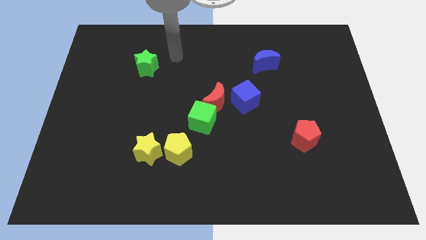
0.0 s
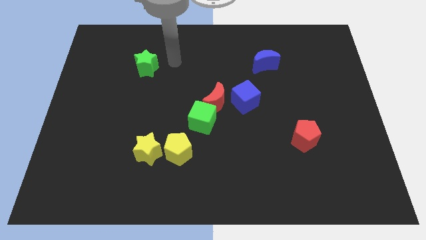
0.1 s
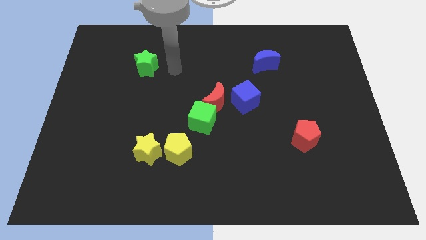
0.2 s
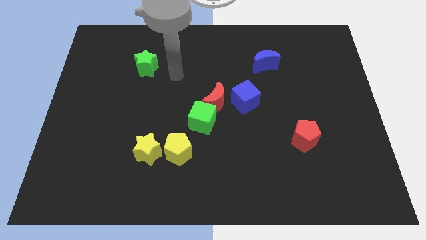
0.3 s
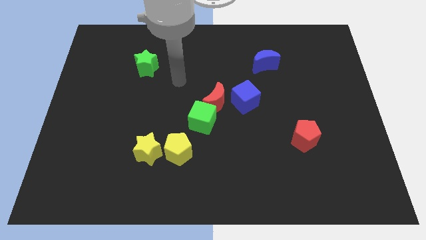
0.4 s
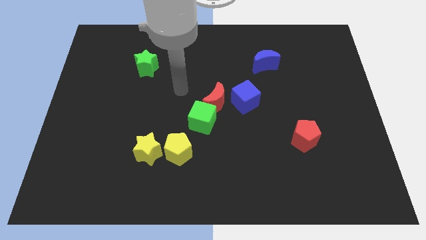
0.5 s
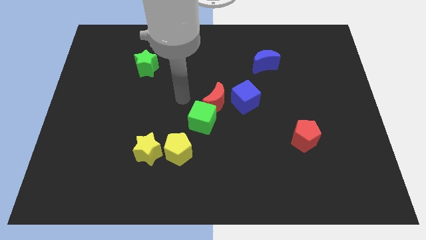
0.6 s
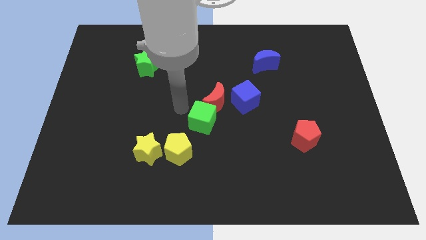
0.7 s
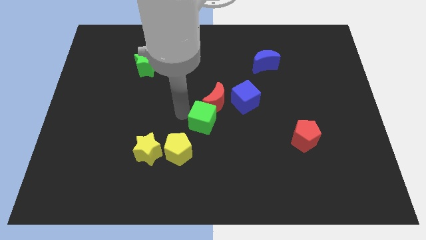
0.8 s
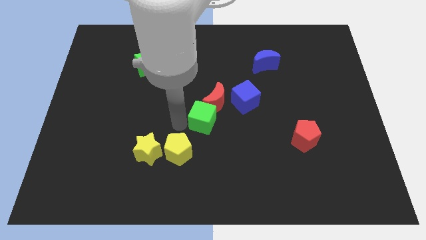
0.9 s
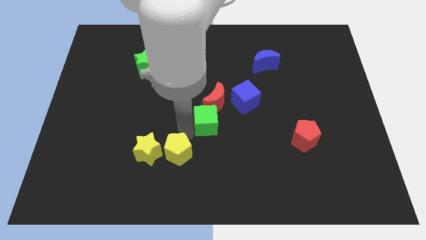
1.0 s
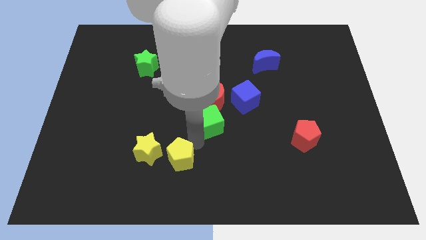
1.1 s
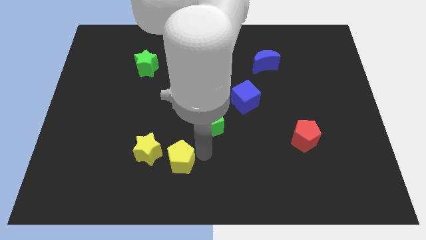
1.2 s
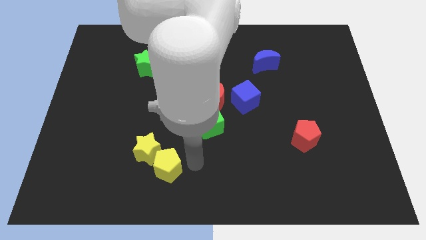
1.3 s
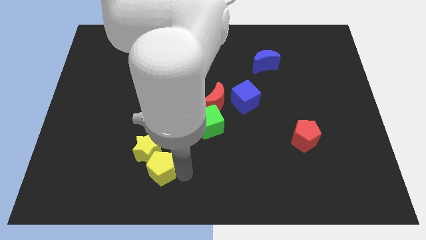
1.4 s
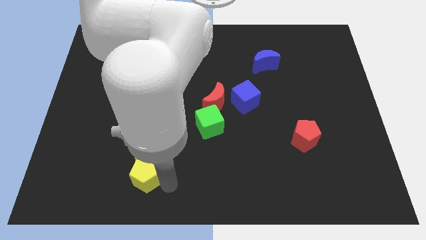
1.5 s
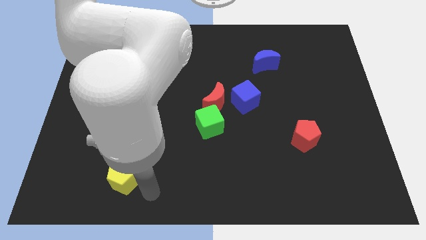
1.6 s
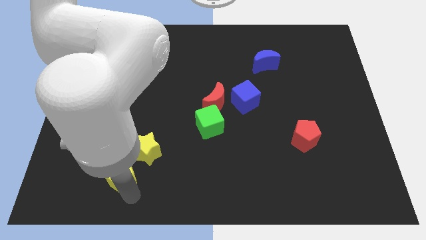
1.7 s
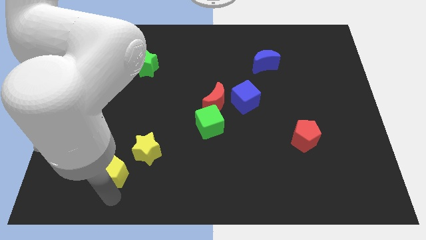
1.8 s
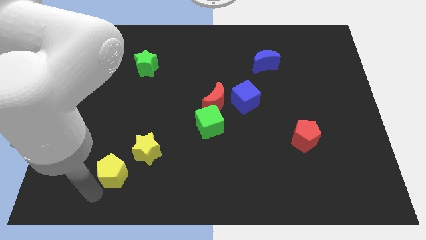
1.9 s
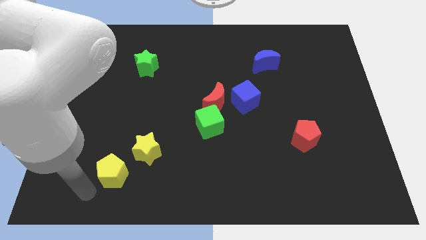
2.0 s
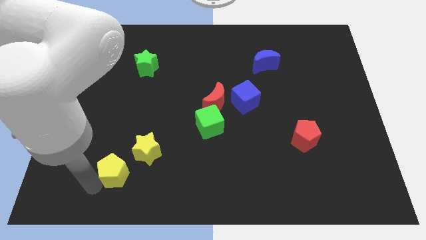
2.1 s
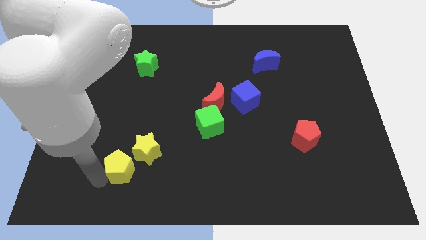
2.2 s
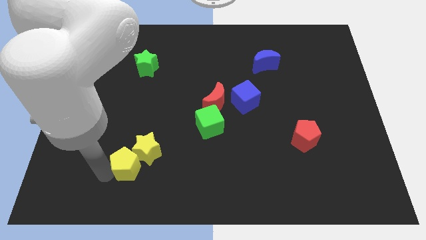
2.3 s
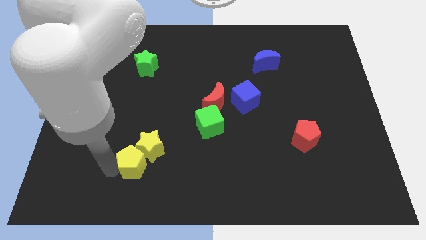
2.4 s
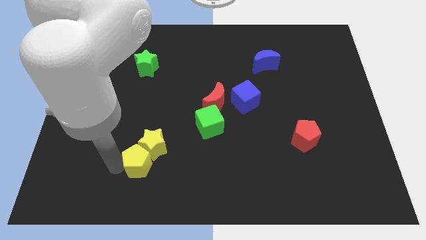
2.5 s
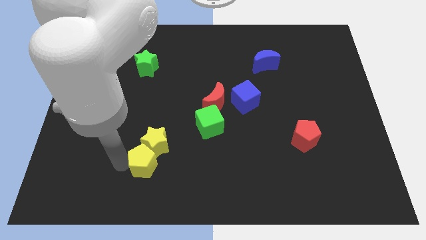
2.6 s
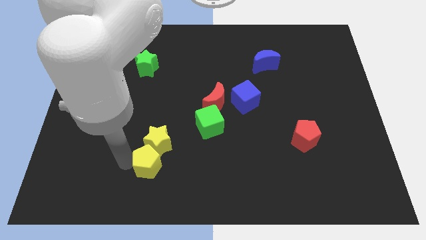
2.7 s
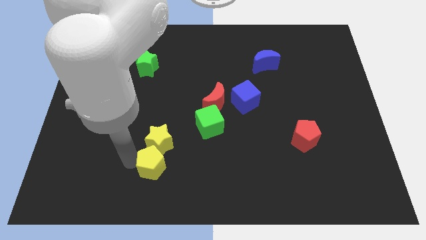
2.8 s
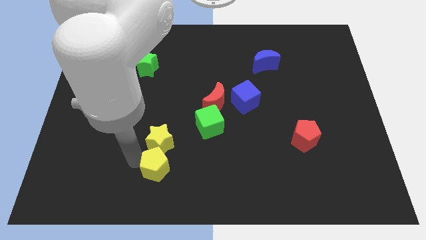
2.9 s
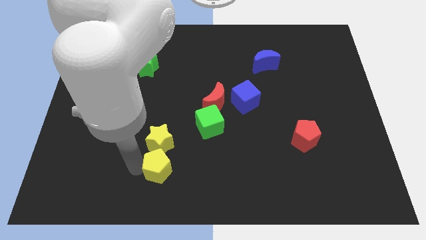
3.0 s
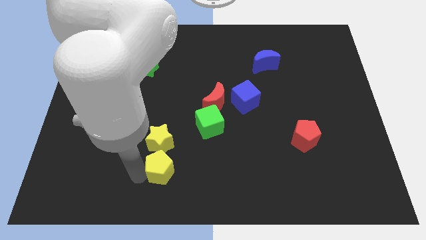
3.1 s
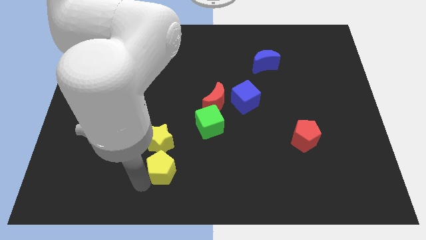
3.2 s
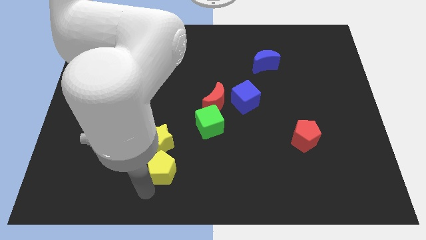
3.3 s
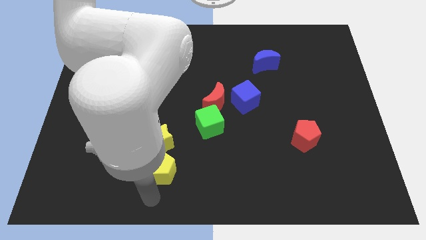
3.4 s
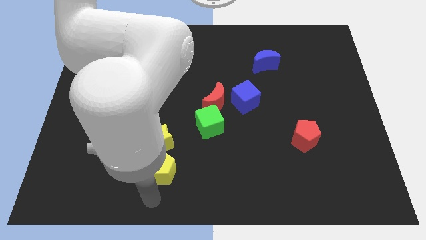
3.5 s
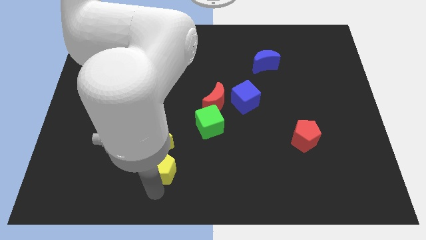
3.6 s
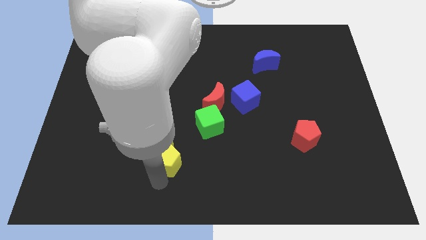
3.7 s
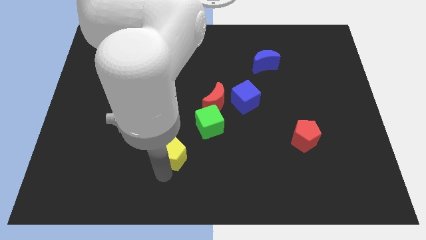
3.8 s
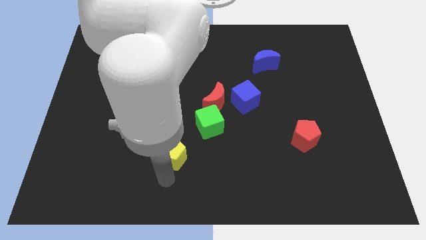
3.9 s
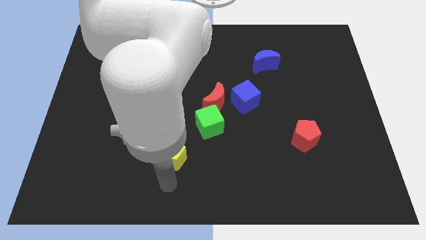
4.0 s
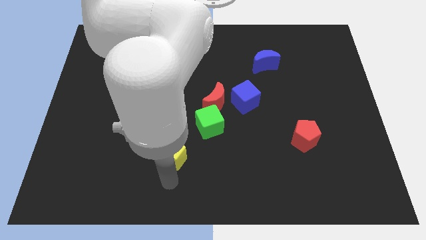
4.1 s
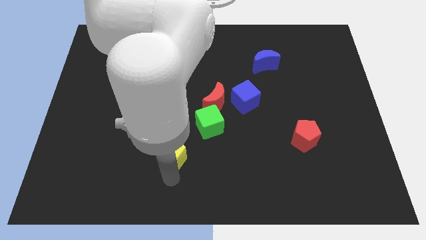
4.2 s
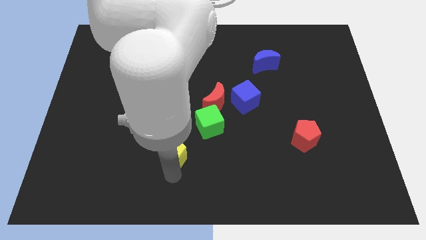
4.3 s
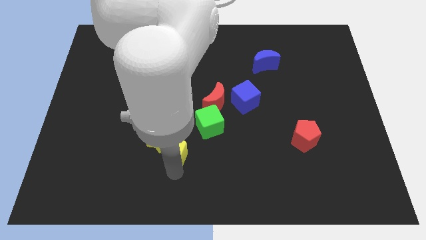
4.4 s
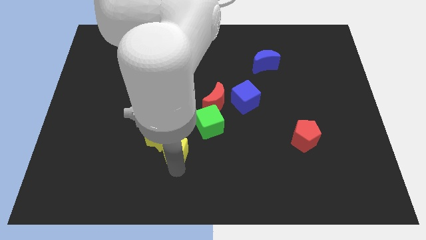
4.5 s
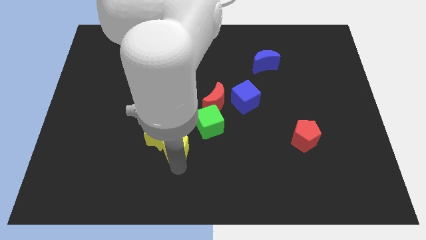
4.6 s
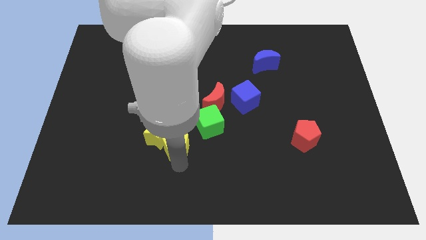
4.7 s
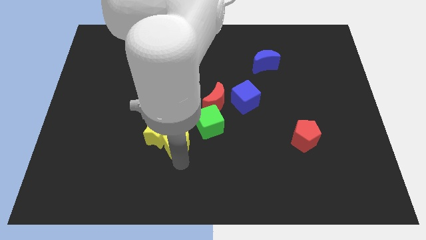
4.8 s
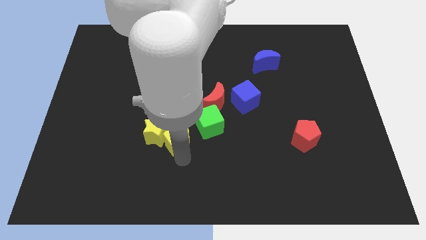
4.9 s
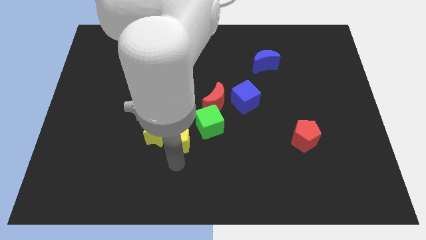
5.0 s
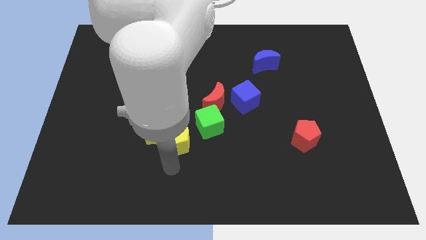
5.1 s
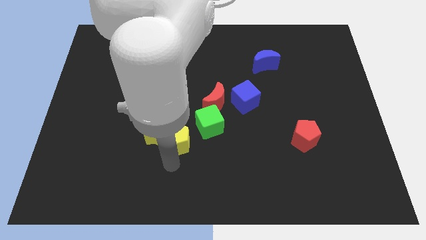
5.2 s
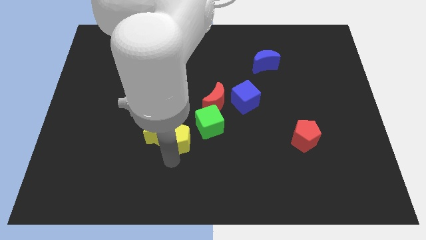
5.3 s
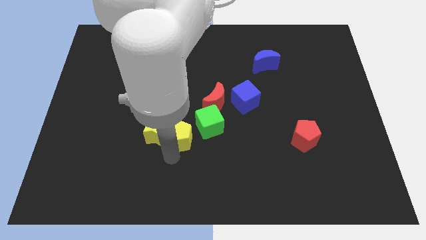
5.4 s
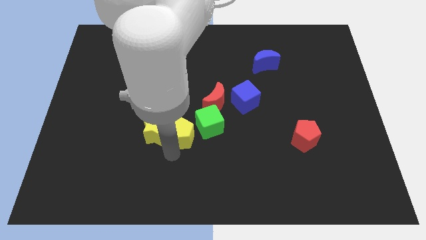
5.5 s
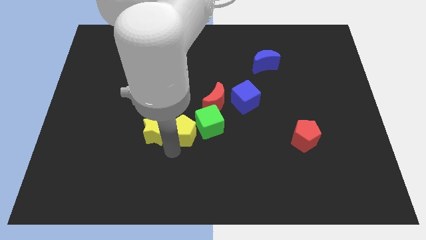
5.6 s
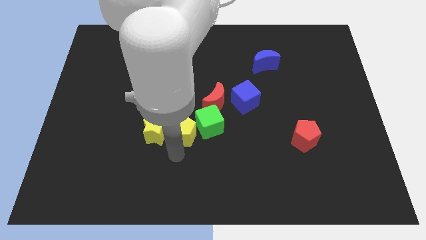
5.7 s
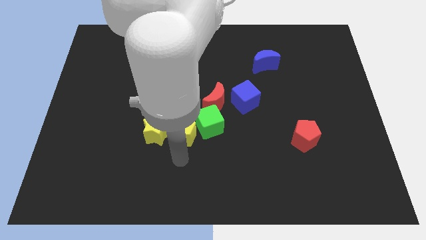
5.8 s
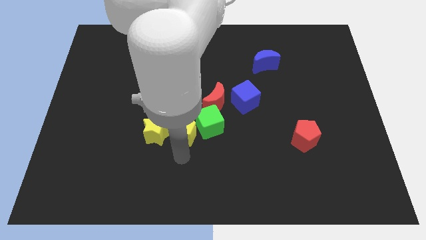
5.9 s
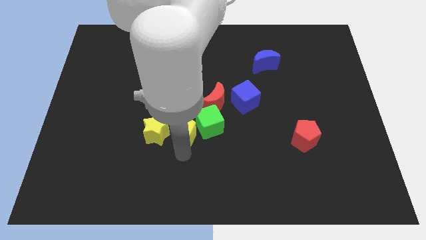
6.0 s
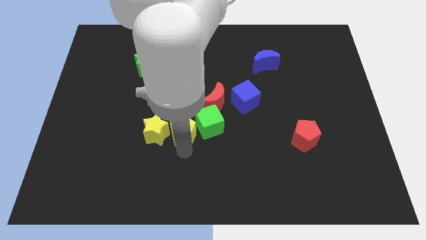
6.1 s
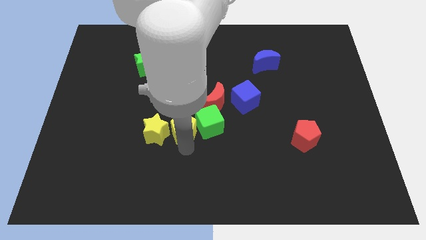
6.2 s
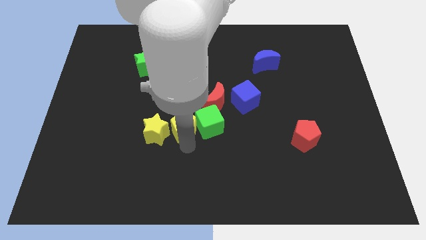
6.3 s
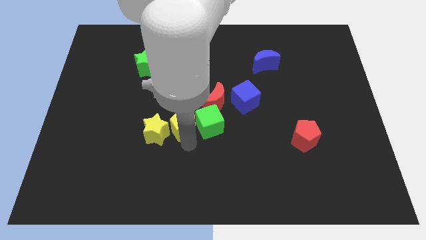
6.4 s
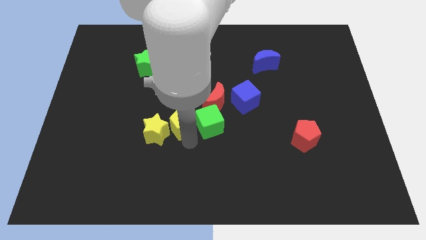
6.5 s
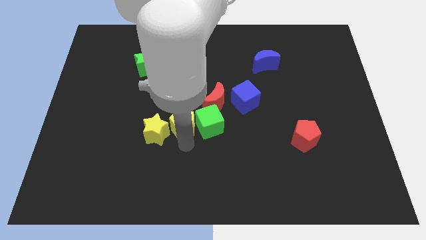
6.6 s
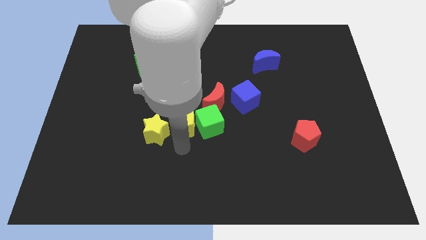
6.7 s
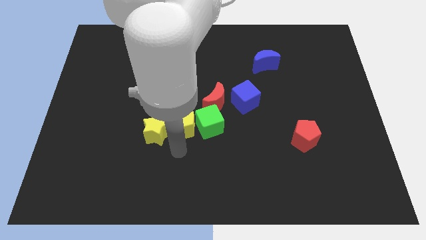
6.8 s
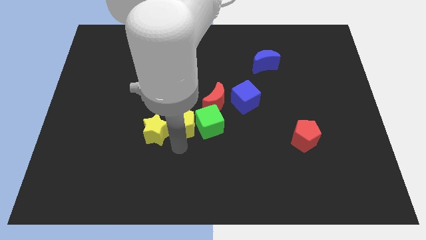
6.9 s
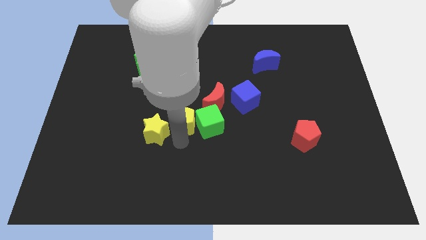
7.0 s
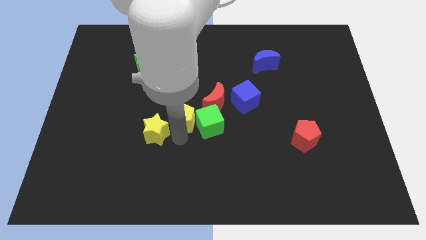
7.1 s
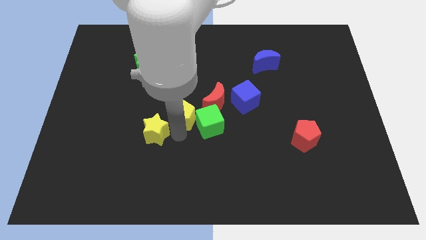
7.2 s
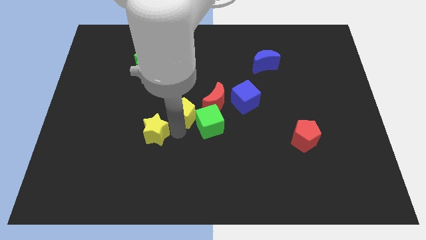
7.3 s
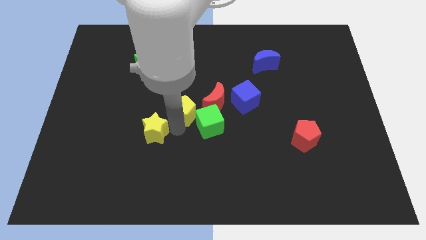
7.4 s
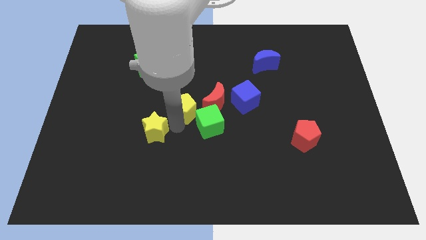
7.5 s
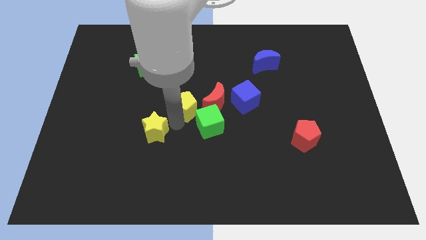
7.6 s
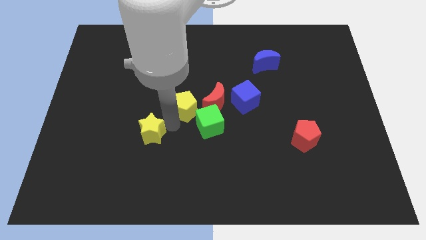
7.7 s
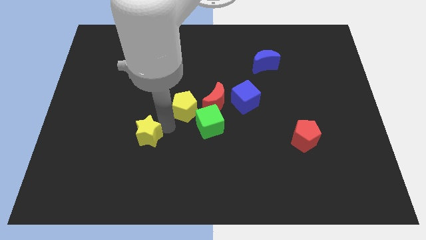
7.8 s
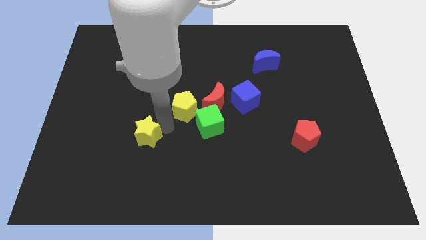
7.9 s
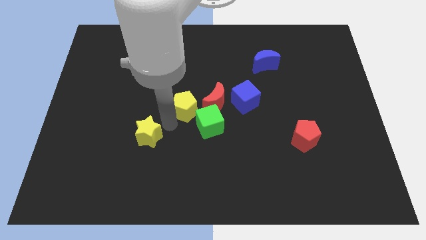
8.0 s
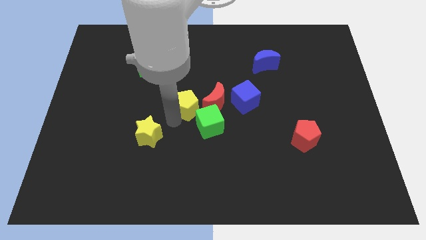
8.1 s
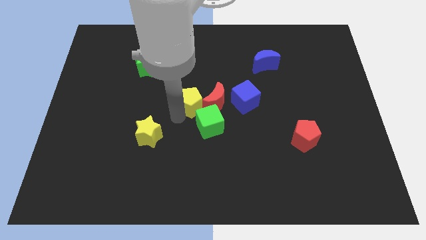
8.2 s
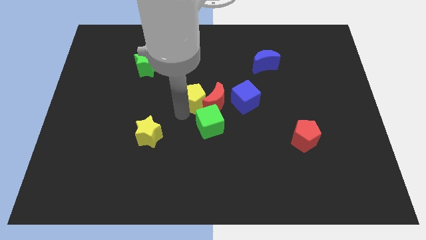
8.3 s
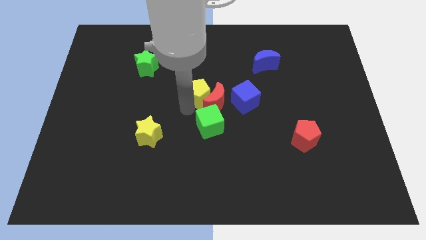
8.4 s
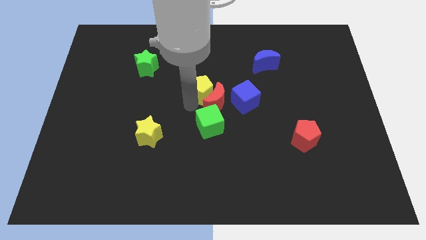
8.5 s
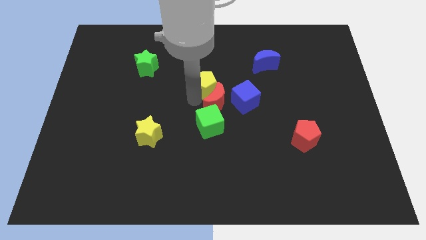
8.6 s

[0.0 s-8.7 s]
put the yellow pentagon diagonally up and to the left of the blue cube
